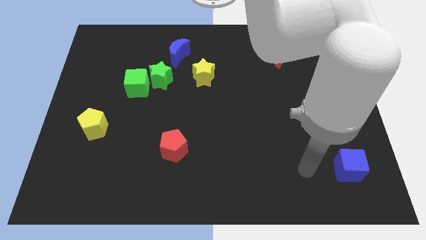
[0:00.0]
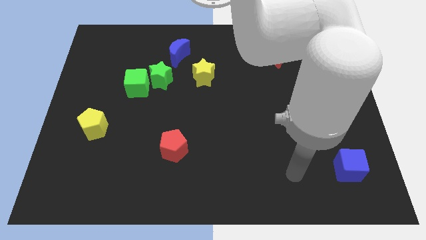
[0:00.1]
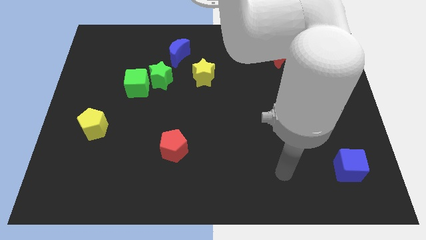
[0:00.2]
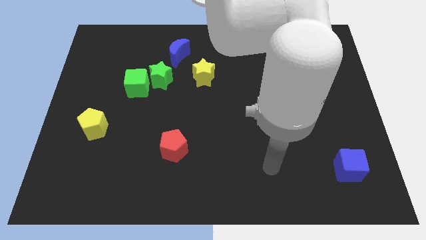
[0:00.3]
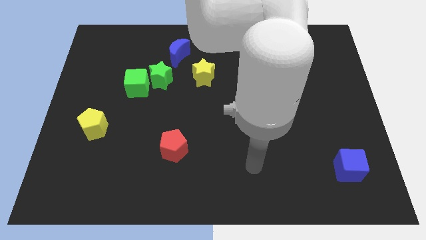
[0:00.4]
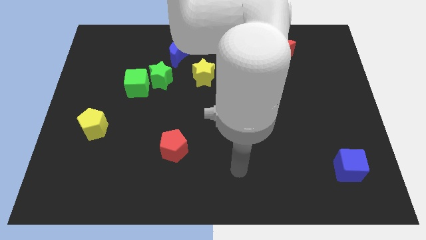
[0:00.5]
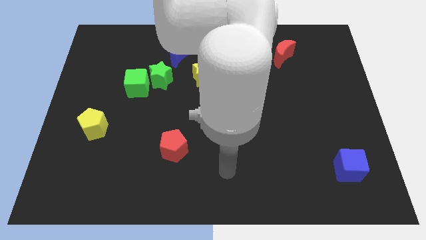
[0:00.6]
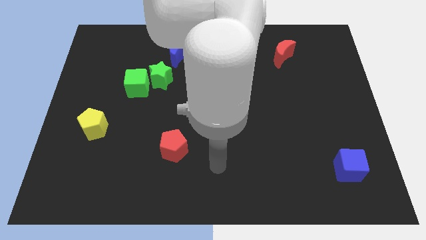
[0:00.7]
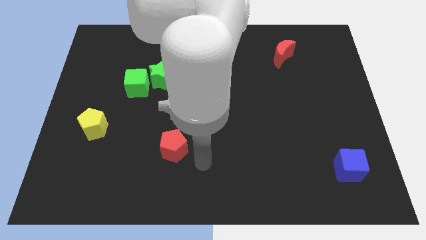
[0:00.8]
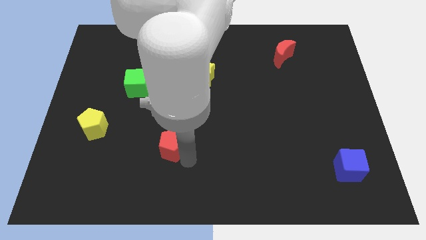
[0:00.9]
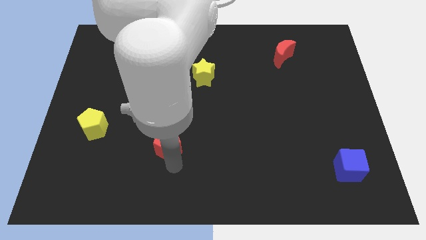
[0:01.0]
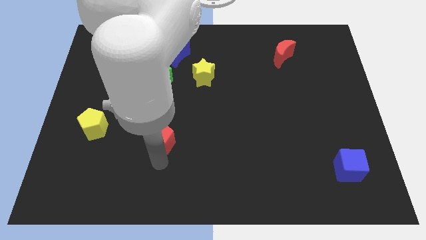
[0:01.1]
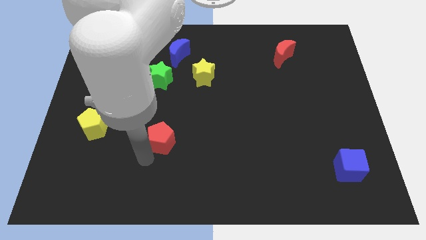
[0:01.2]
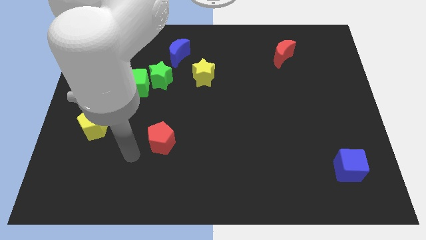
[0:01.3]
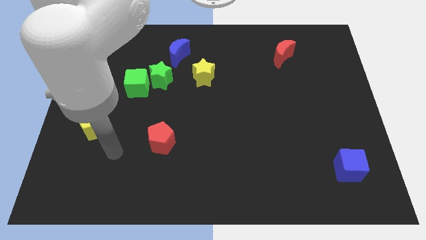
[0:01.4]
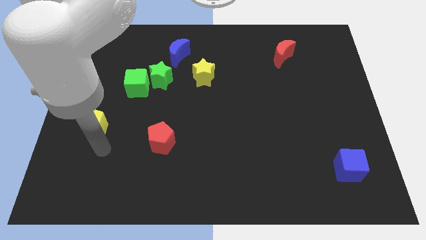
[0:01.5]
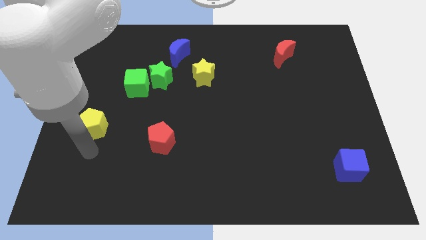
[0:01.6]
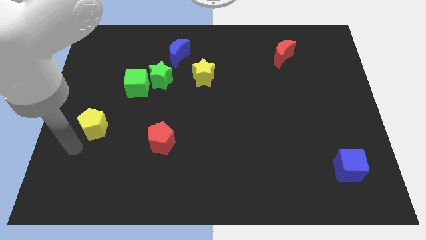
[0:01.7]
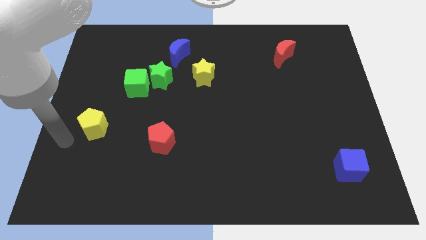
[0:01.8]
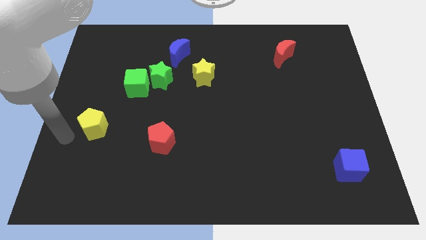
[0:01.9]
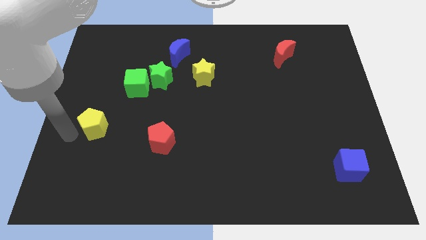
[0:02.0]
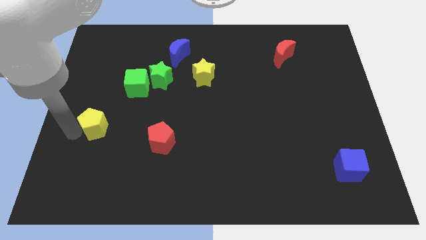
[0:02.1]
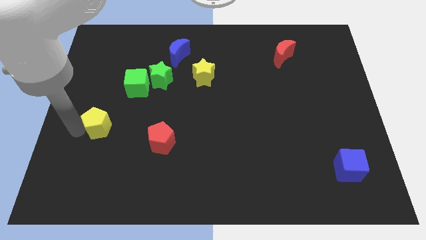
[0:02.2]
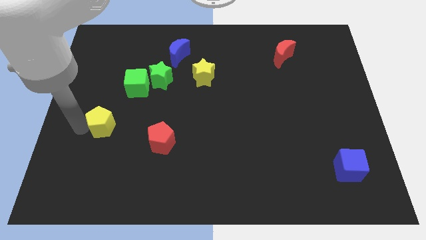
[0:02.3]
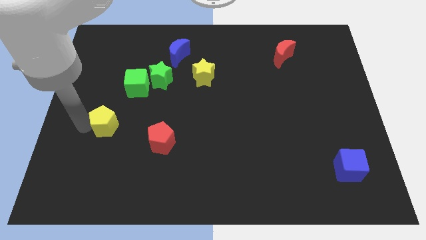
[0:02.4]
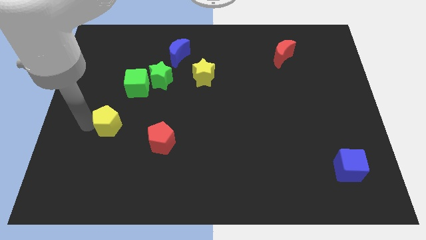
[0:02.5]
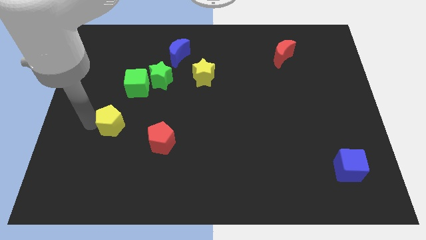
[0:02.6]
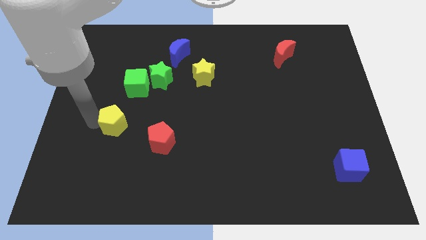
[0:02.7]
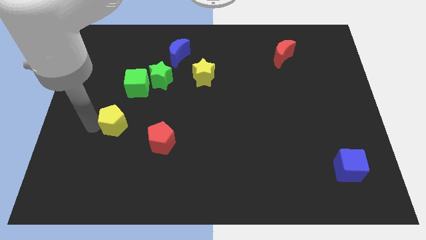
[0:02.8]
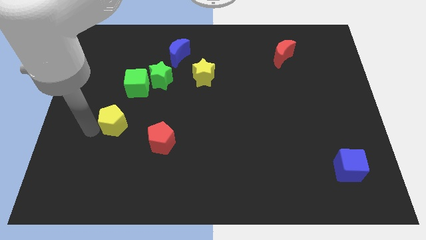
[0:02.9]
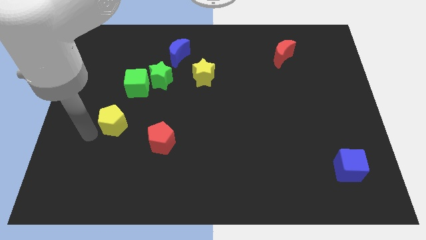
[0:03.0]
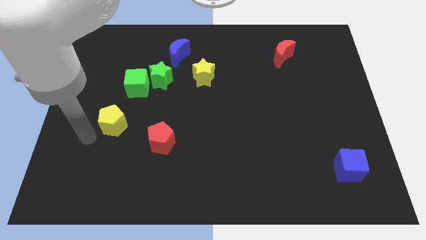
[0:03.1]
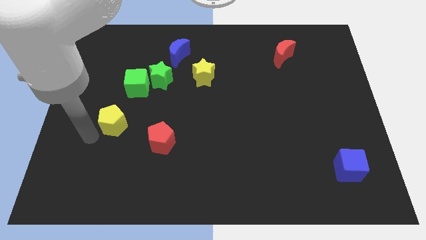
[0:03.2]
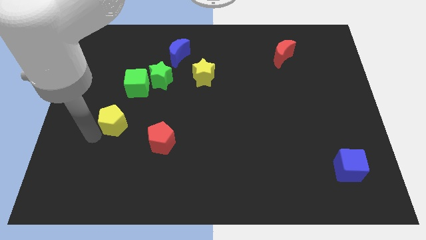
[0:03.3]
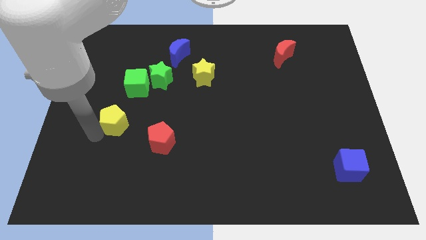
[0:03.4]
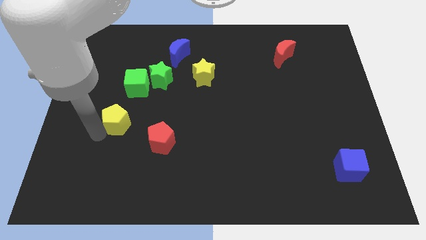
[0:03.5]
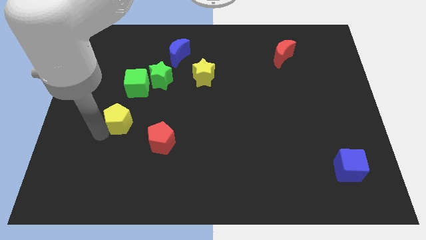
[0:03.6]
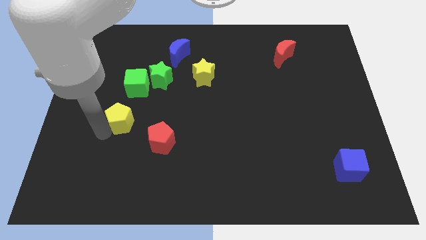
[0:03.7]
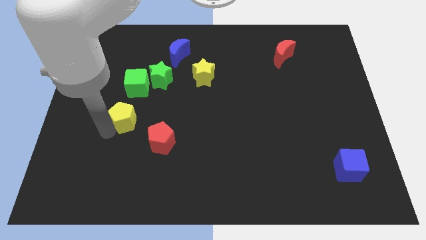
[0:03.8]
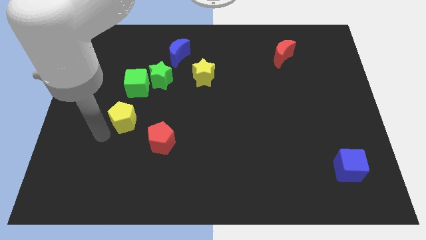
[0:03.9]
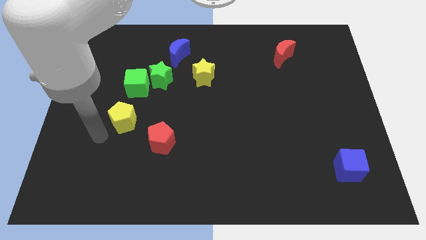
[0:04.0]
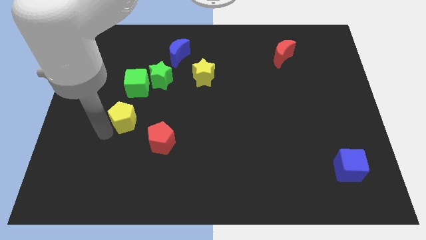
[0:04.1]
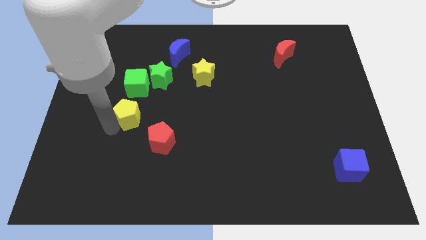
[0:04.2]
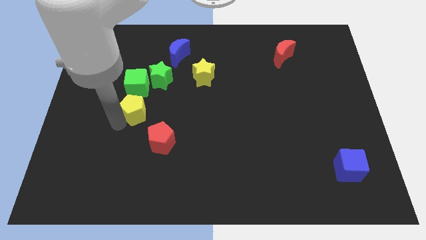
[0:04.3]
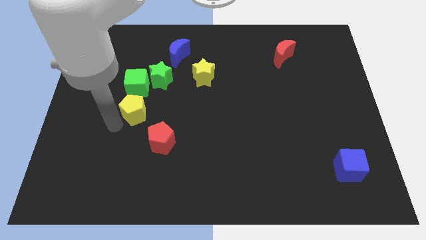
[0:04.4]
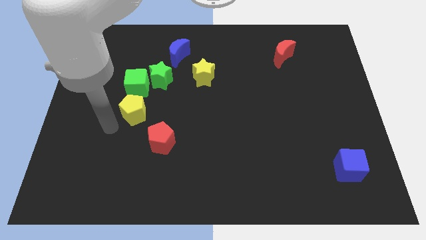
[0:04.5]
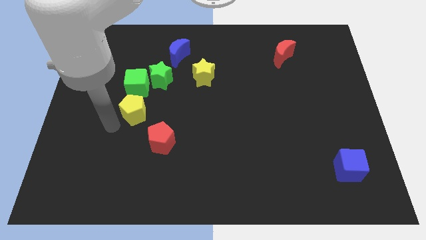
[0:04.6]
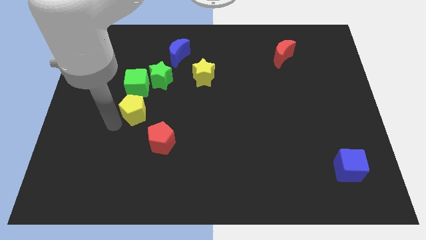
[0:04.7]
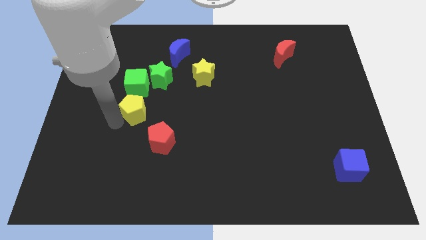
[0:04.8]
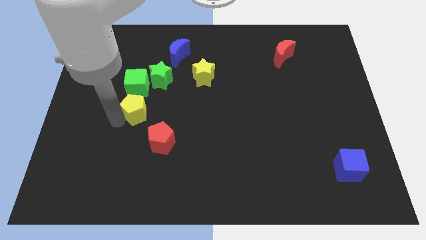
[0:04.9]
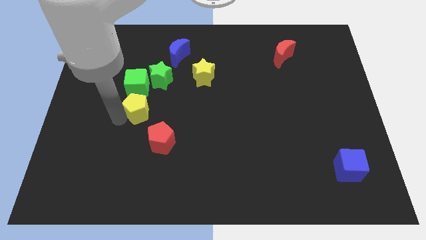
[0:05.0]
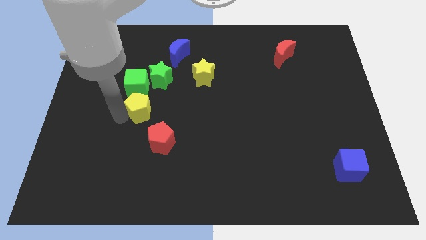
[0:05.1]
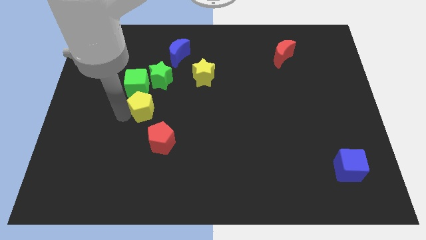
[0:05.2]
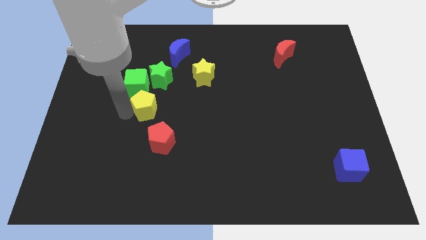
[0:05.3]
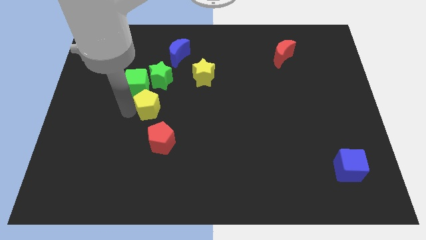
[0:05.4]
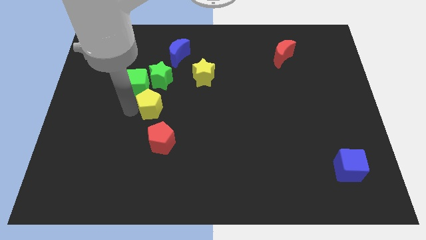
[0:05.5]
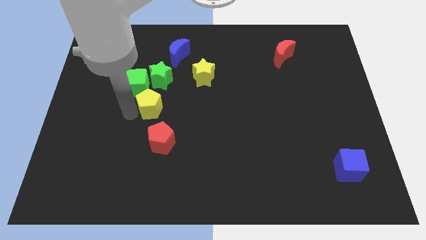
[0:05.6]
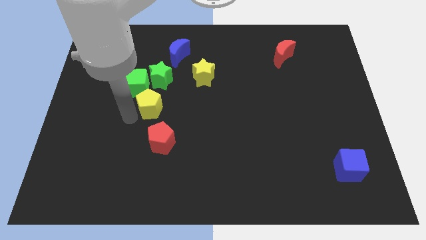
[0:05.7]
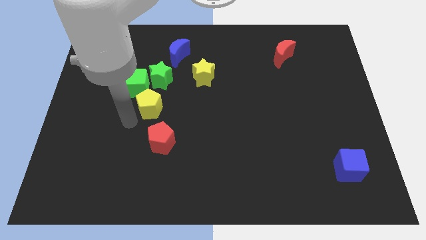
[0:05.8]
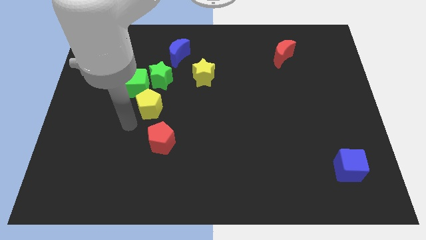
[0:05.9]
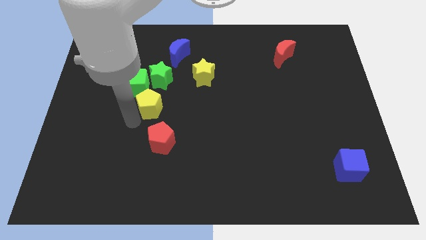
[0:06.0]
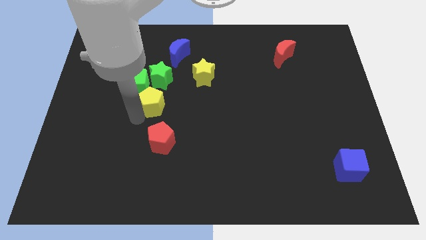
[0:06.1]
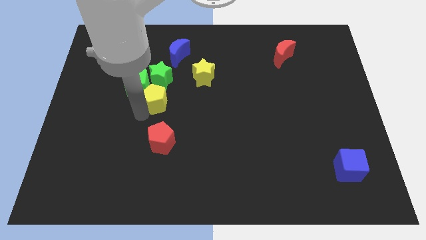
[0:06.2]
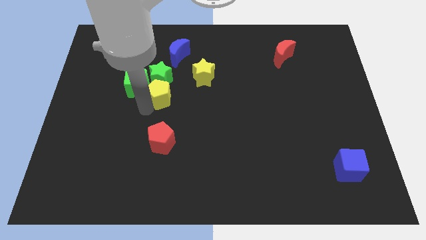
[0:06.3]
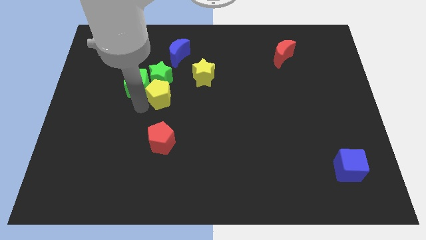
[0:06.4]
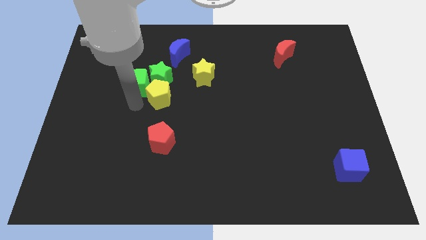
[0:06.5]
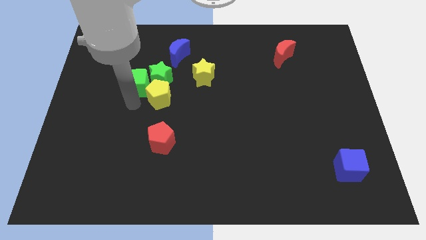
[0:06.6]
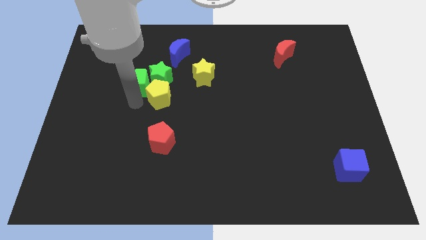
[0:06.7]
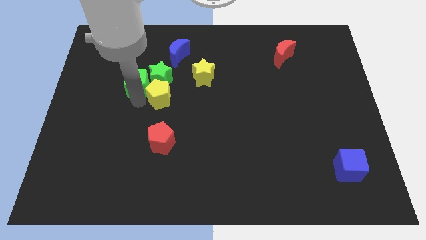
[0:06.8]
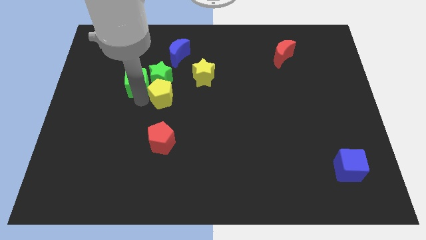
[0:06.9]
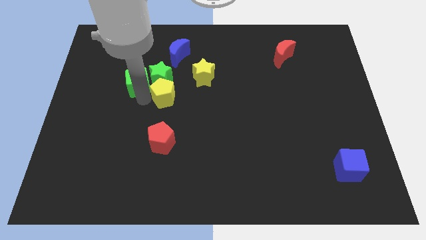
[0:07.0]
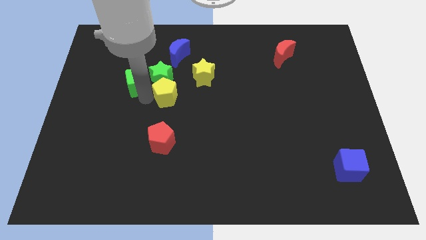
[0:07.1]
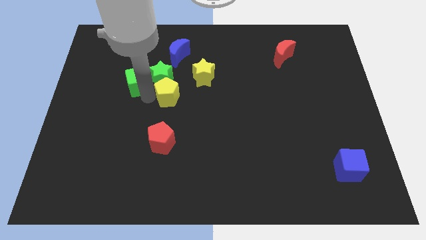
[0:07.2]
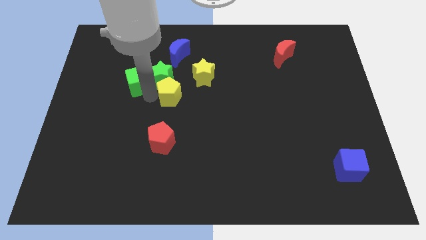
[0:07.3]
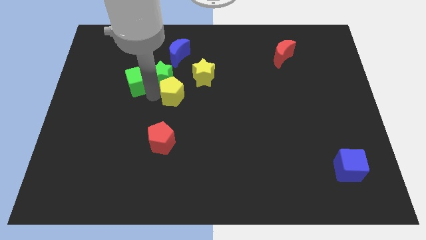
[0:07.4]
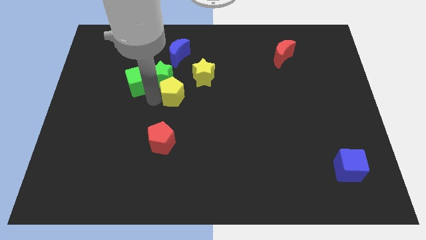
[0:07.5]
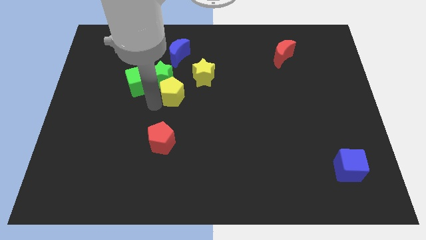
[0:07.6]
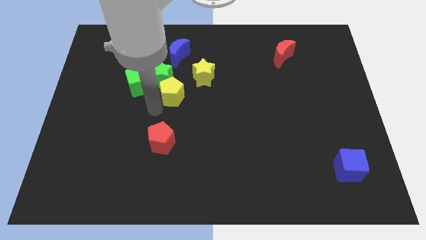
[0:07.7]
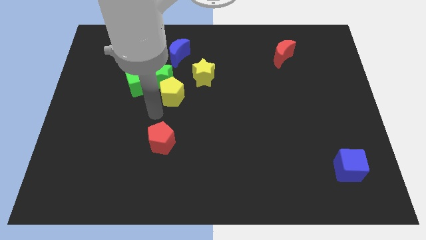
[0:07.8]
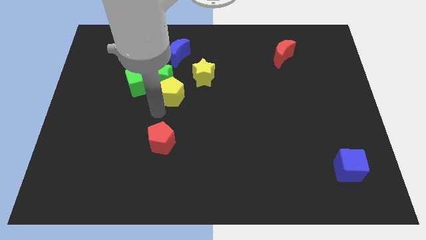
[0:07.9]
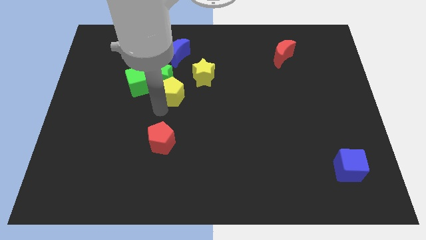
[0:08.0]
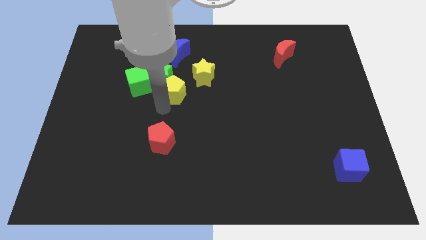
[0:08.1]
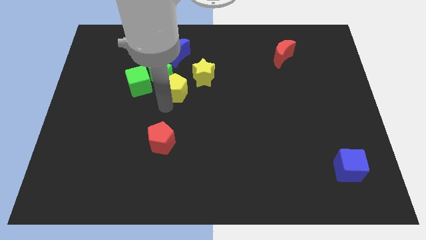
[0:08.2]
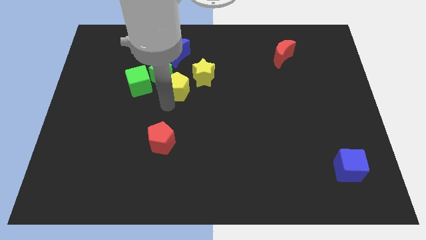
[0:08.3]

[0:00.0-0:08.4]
push the yellow pentagon upwards and then to the right
